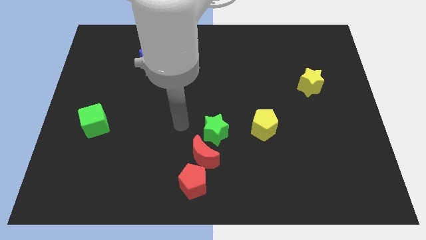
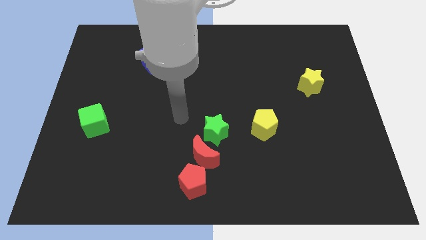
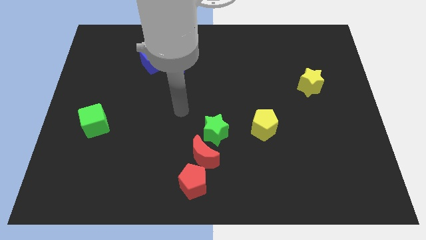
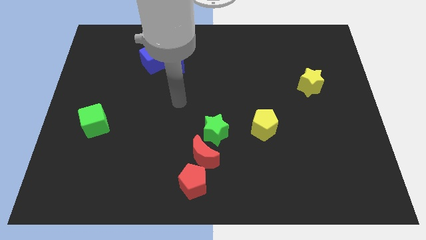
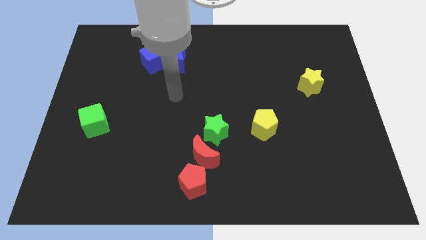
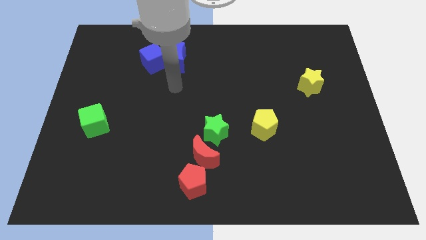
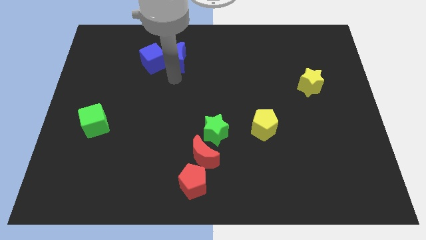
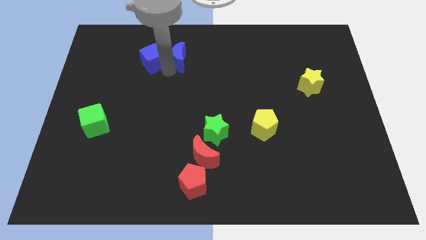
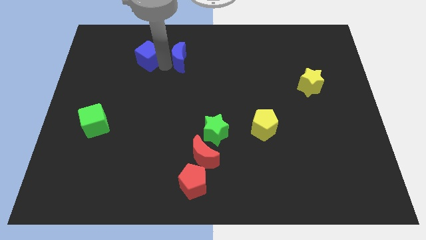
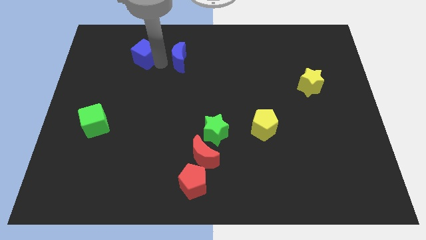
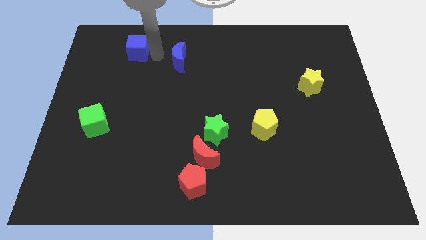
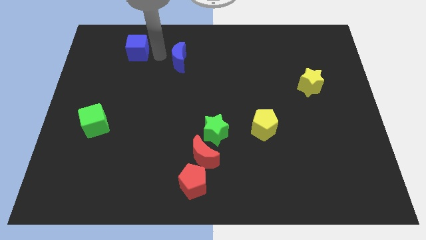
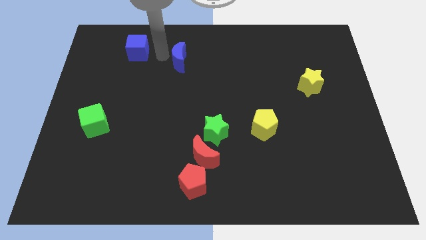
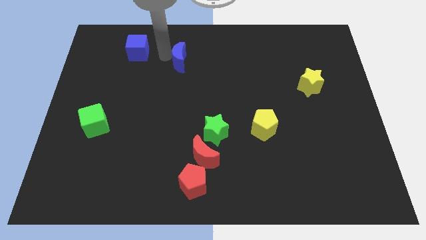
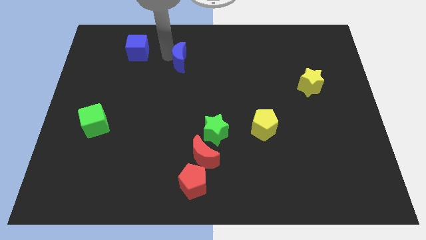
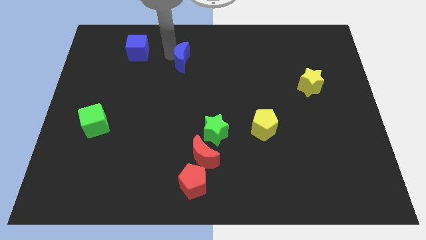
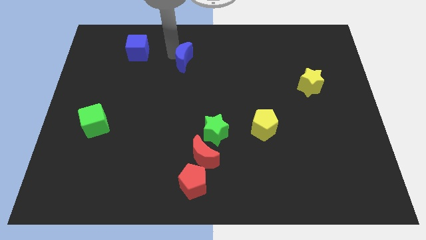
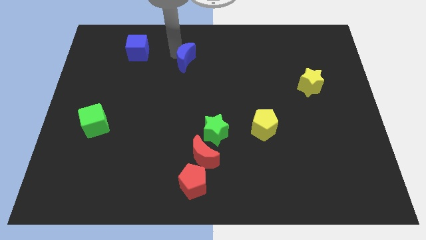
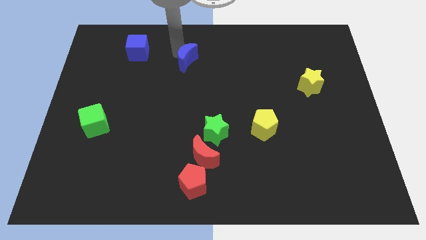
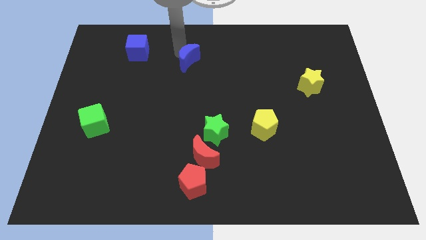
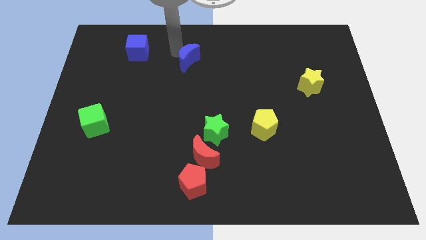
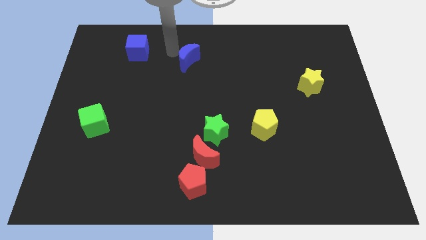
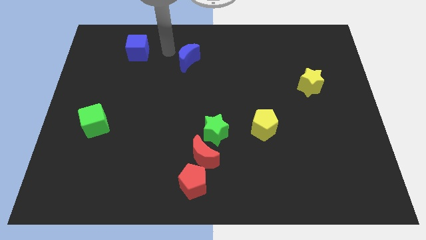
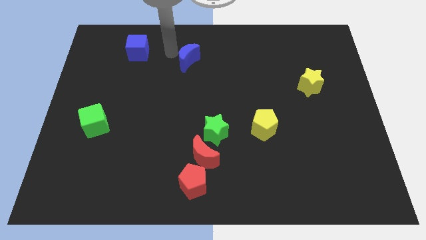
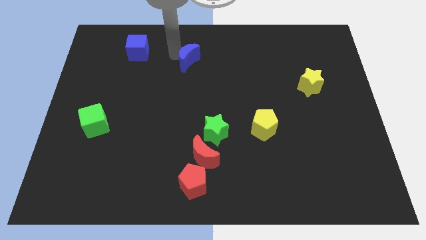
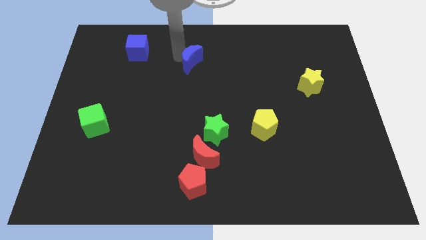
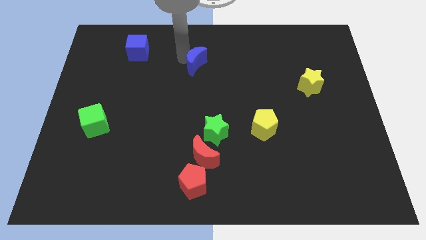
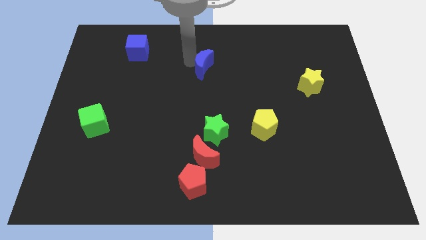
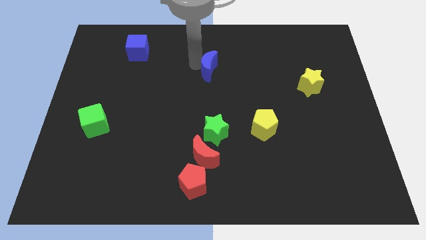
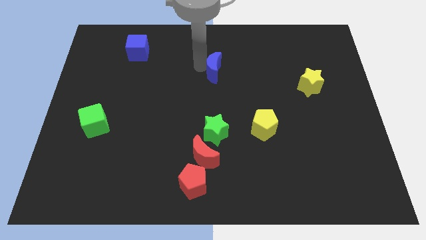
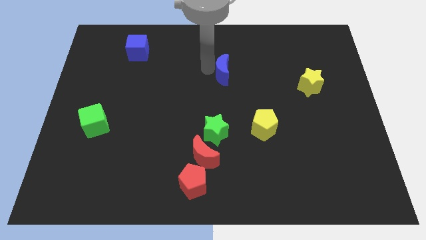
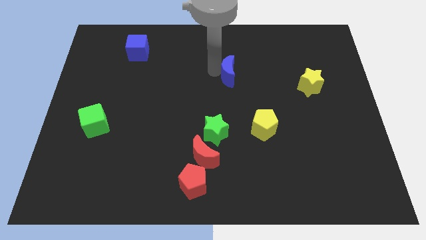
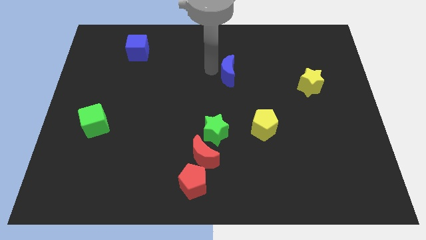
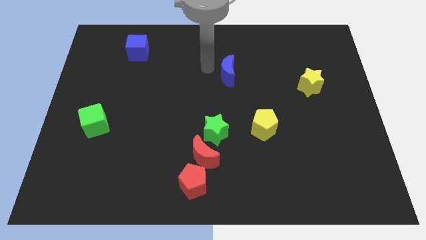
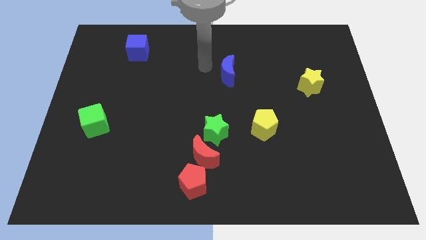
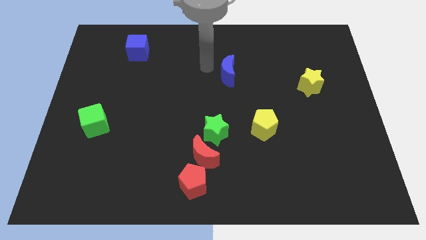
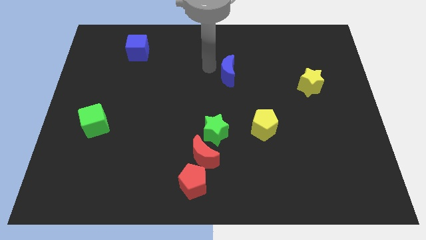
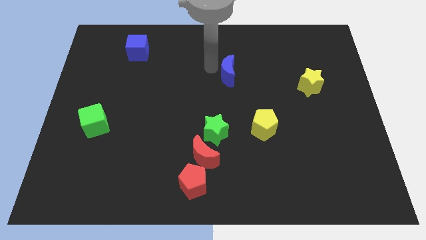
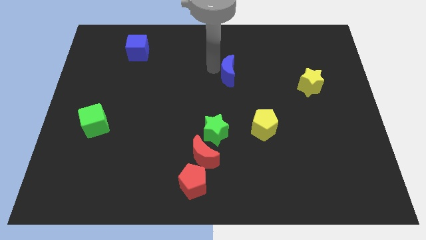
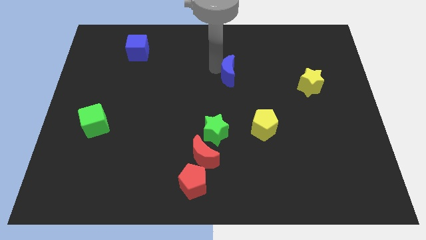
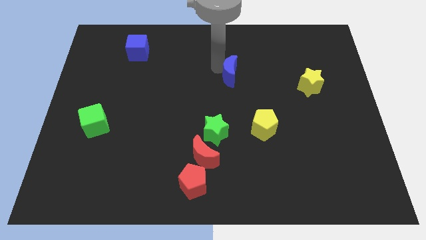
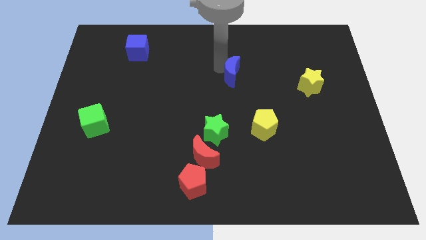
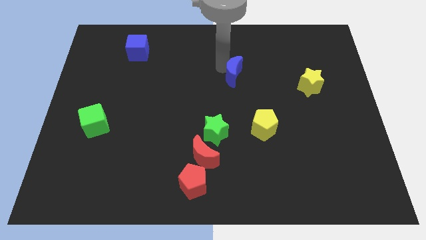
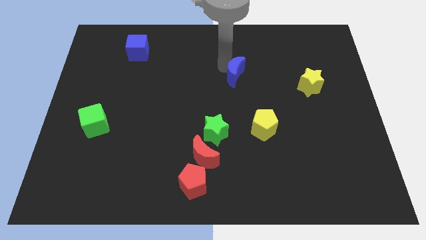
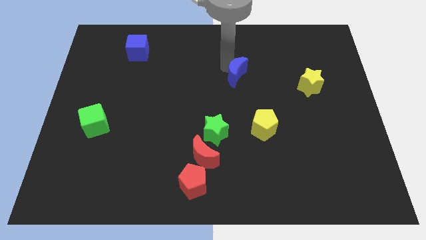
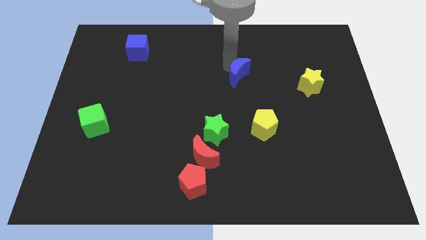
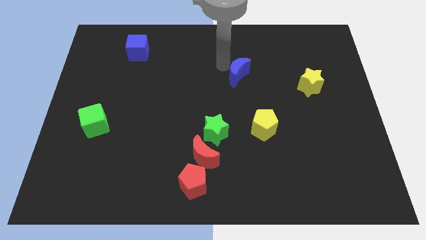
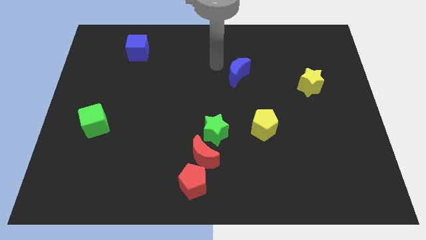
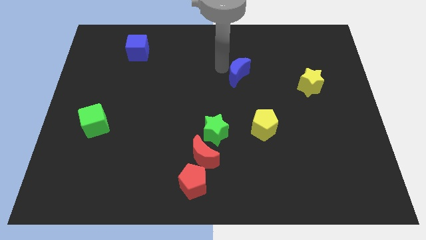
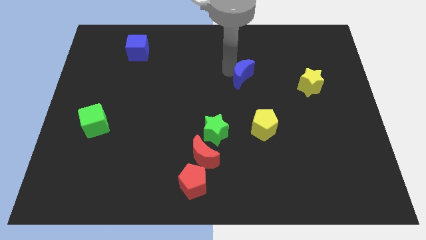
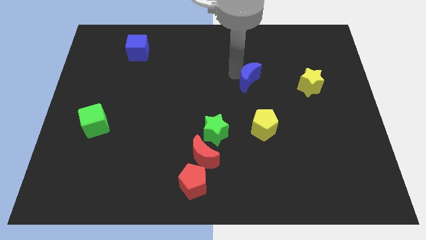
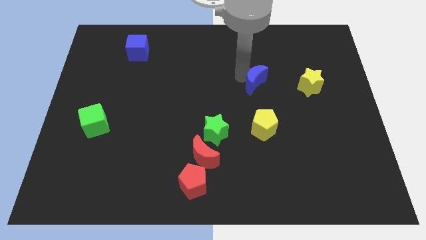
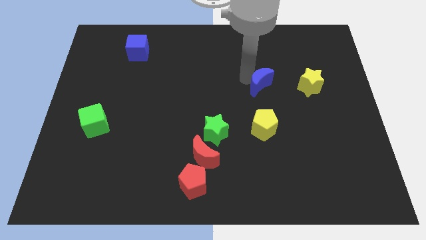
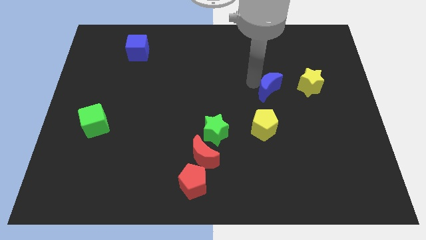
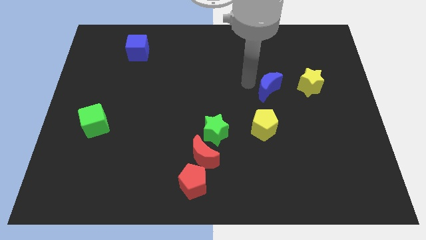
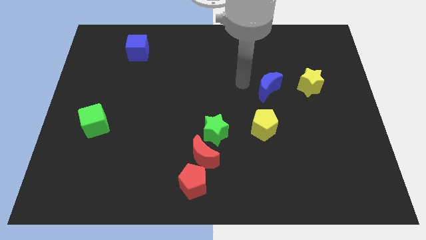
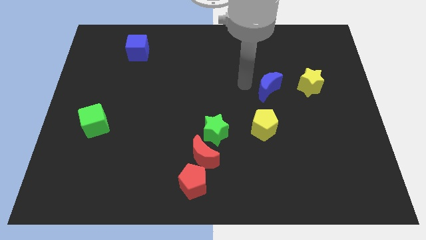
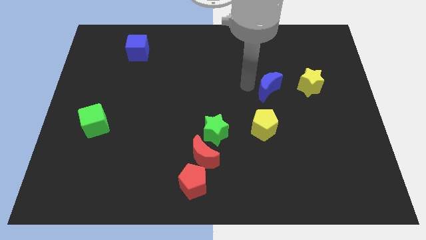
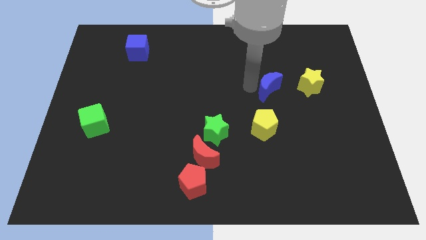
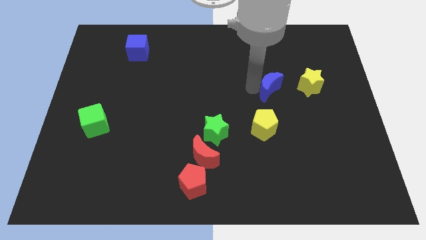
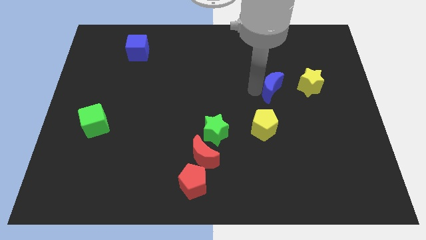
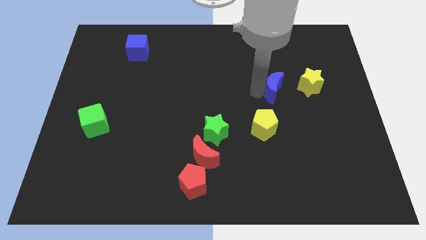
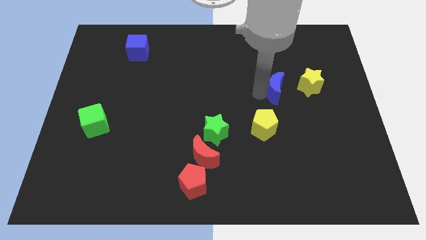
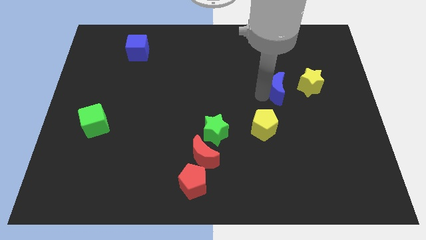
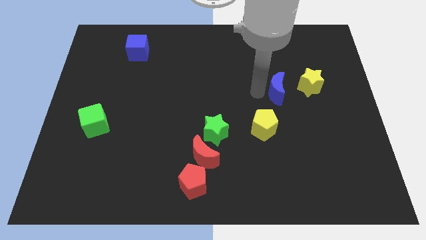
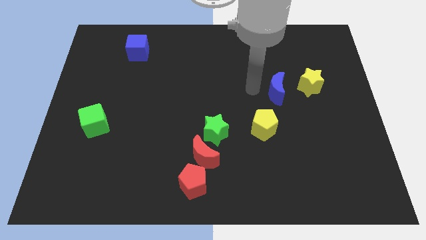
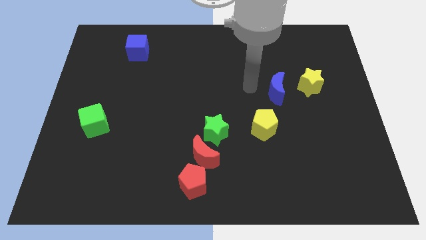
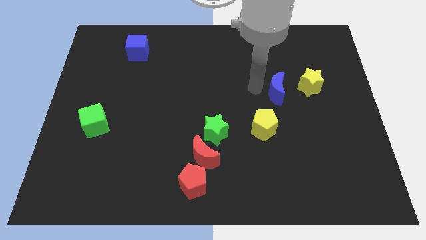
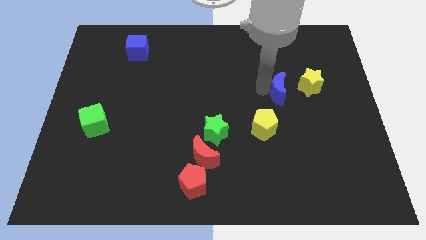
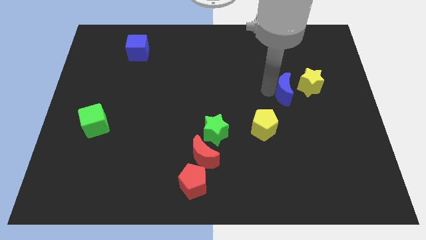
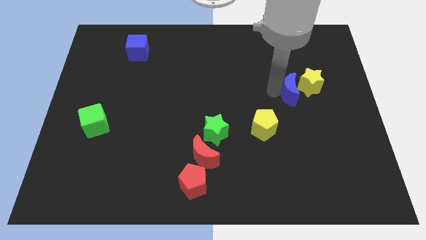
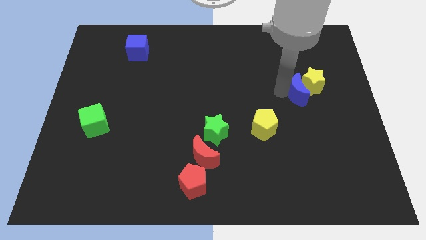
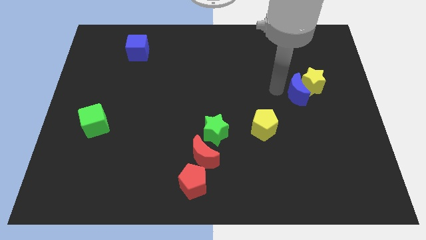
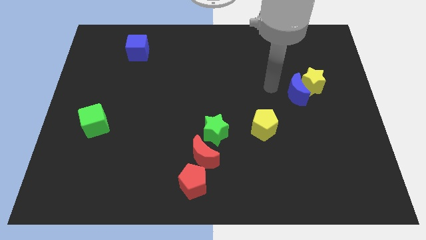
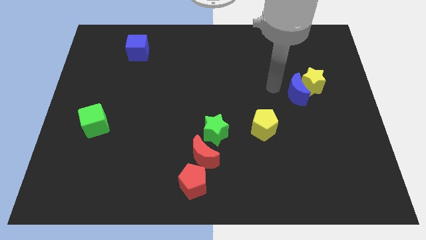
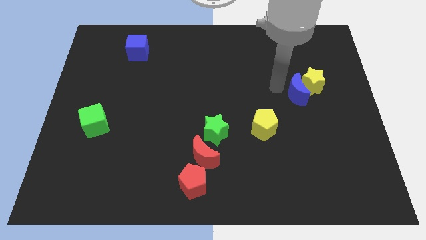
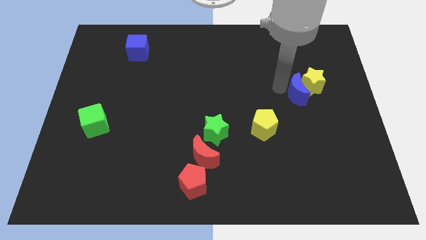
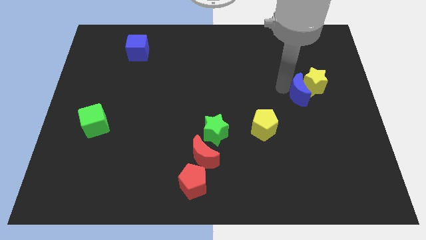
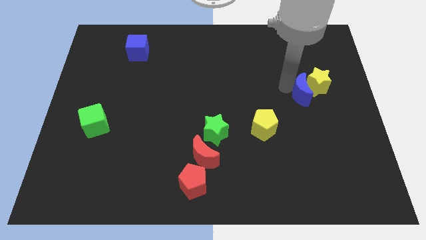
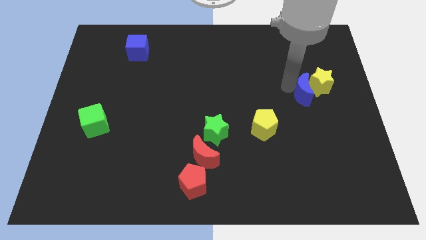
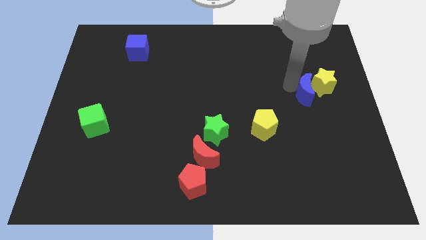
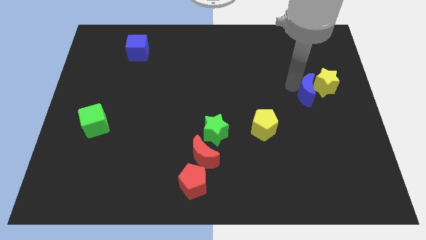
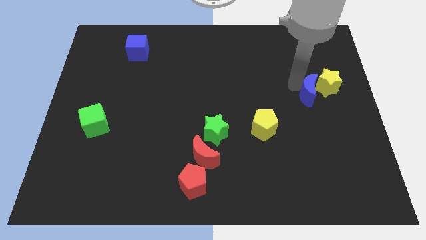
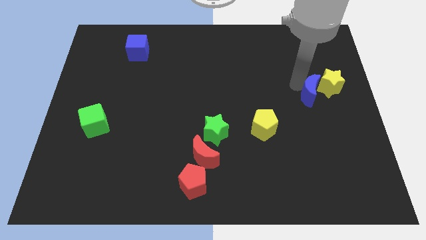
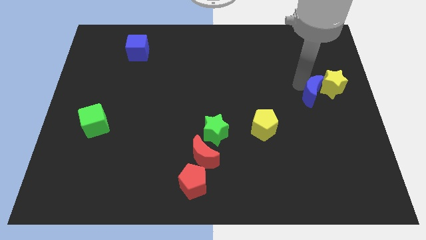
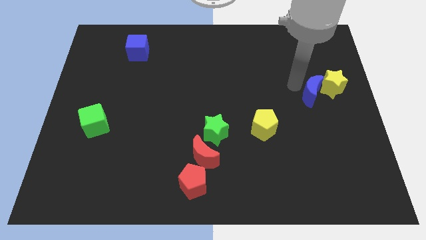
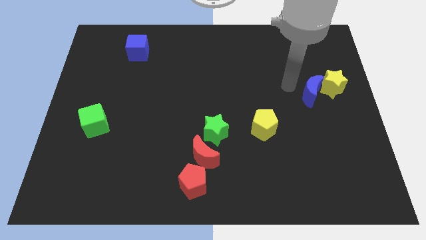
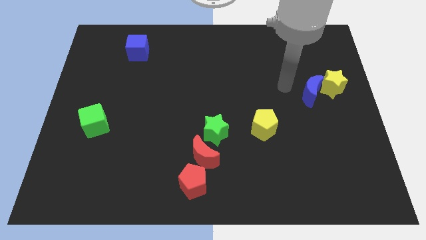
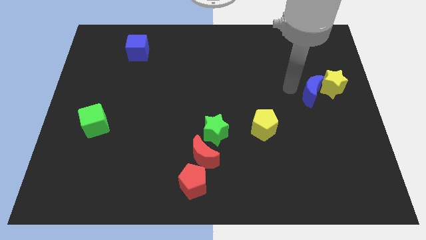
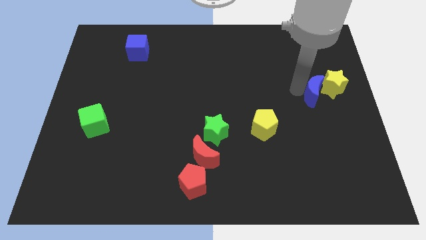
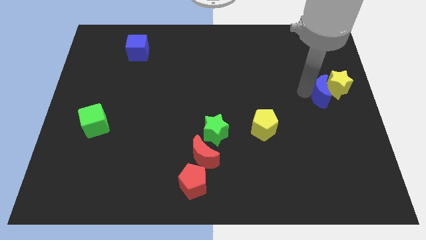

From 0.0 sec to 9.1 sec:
push the blue moon to the right side
